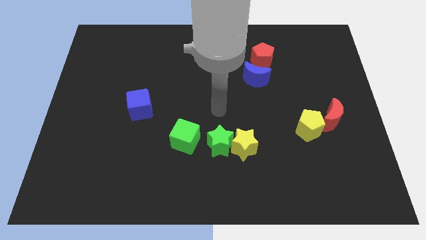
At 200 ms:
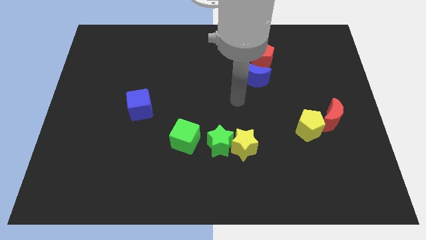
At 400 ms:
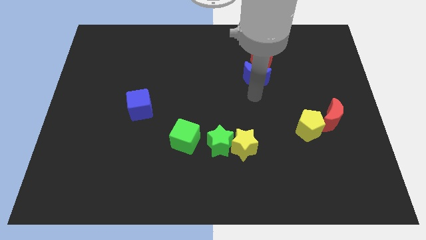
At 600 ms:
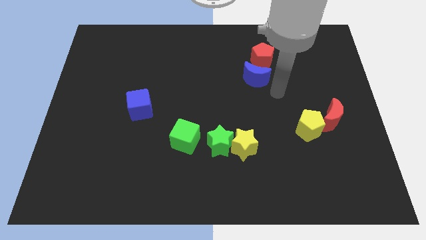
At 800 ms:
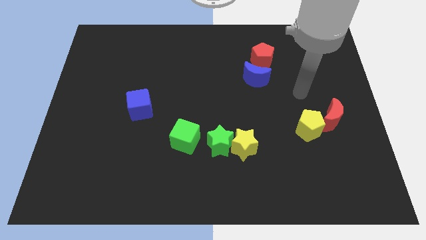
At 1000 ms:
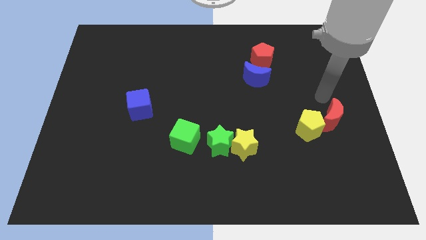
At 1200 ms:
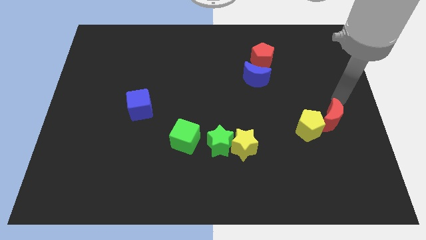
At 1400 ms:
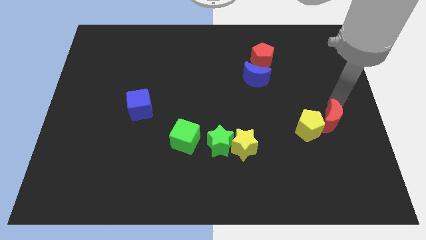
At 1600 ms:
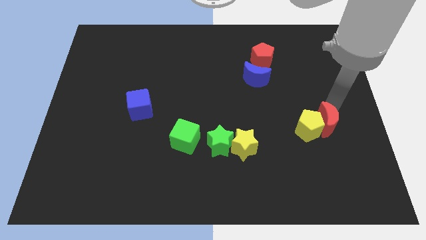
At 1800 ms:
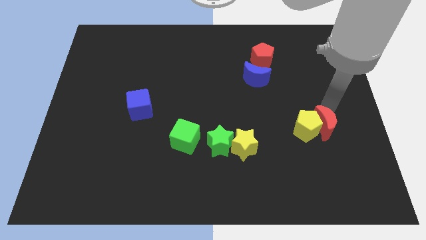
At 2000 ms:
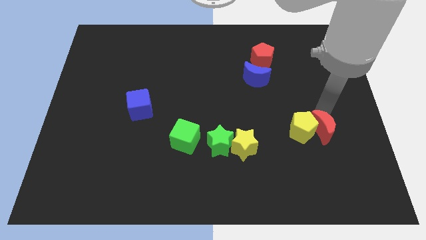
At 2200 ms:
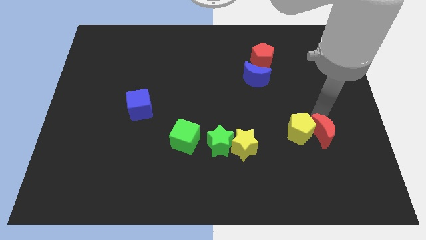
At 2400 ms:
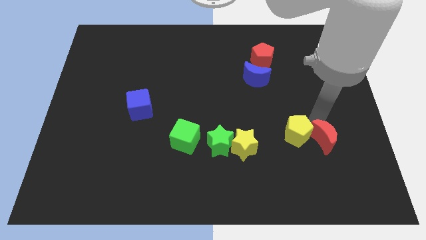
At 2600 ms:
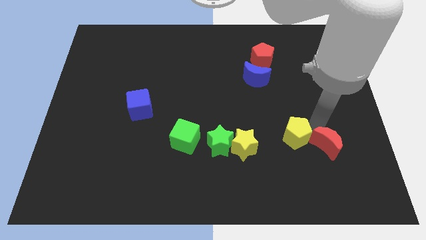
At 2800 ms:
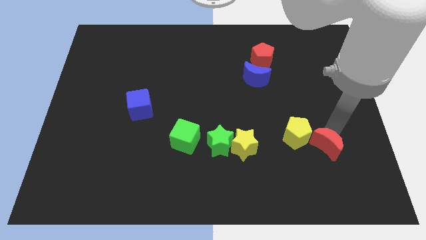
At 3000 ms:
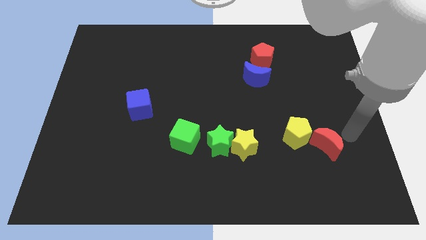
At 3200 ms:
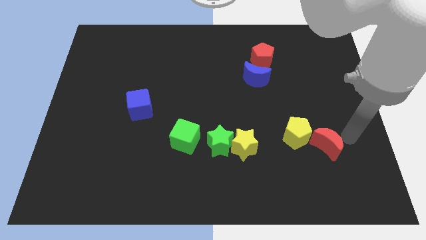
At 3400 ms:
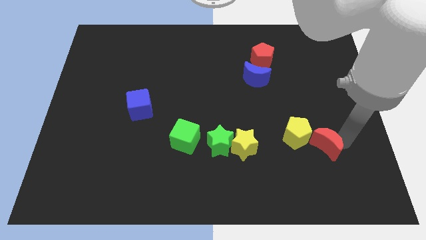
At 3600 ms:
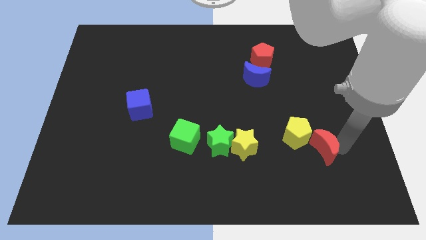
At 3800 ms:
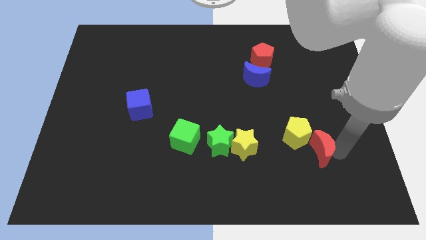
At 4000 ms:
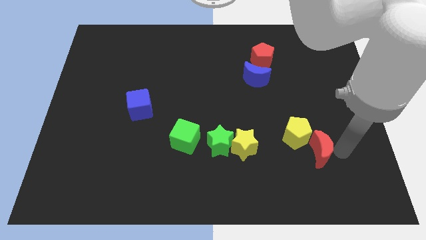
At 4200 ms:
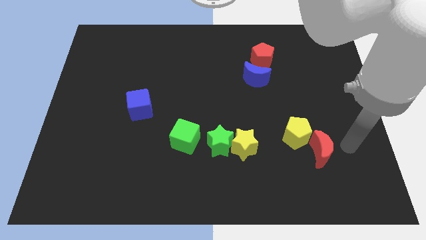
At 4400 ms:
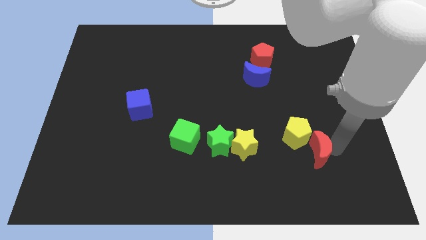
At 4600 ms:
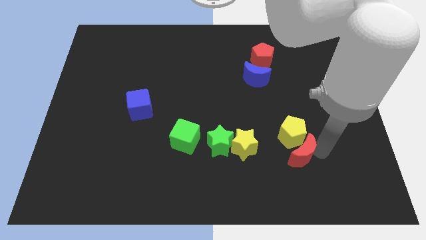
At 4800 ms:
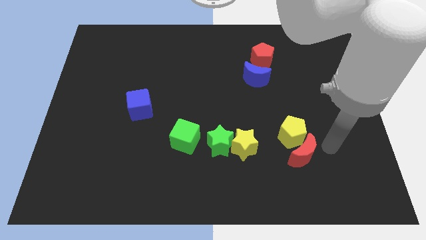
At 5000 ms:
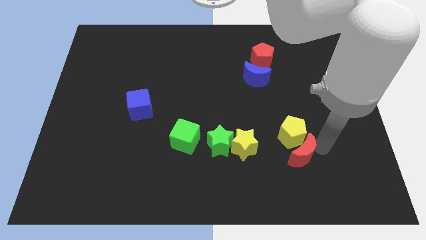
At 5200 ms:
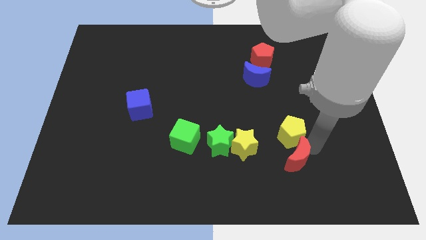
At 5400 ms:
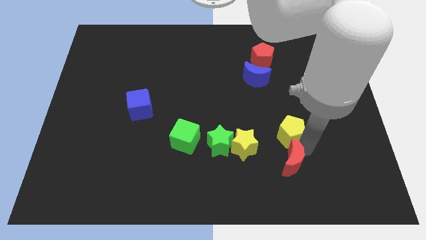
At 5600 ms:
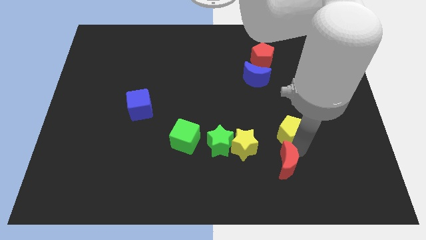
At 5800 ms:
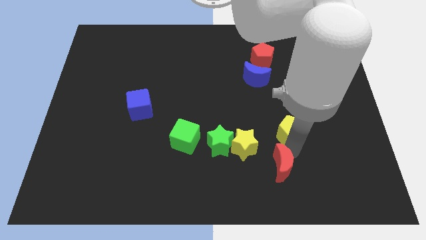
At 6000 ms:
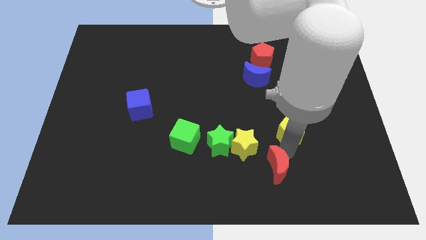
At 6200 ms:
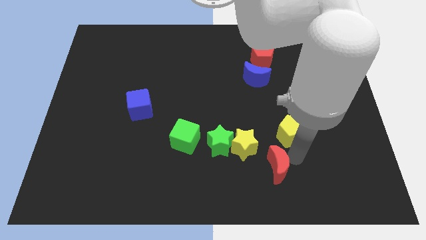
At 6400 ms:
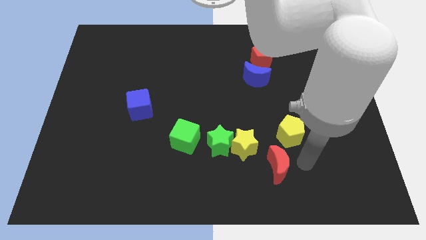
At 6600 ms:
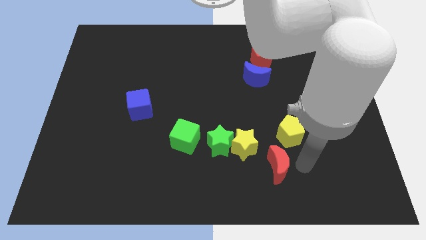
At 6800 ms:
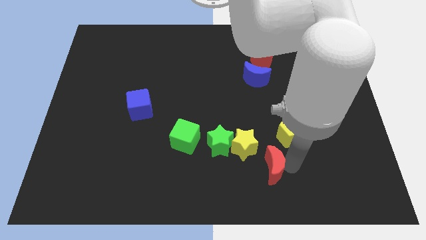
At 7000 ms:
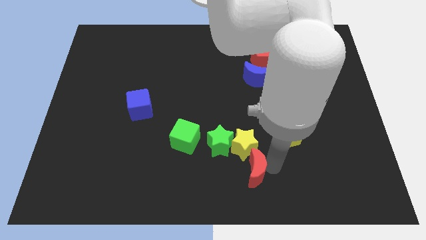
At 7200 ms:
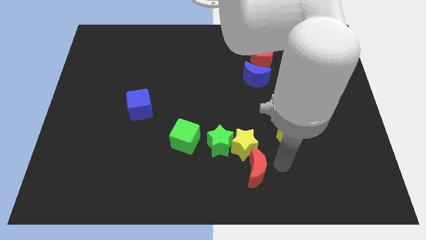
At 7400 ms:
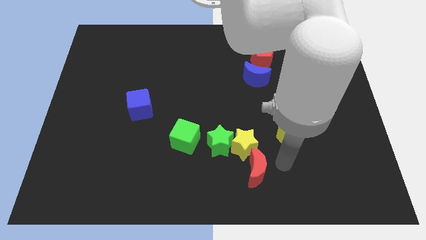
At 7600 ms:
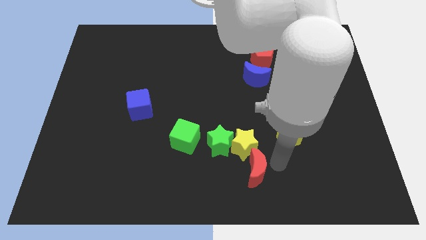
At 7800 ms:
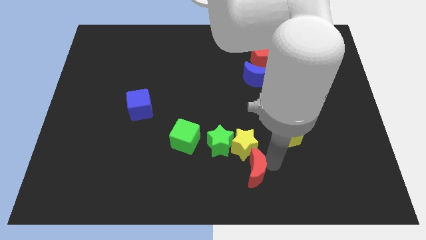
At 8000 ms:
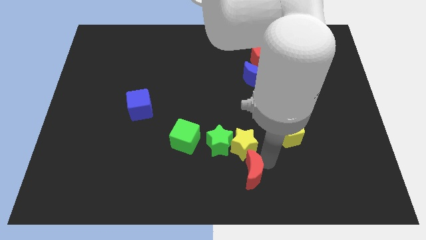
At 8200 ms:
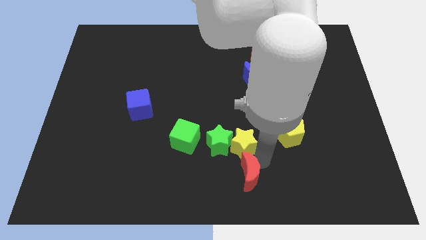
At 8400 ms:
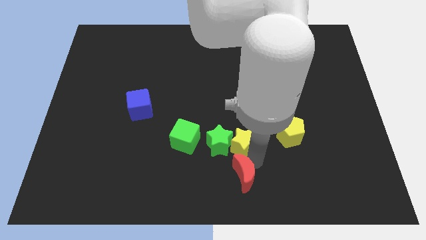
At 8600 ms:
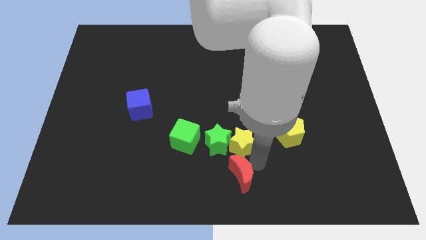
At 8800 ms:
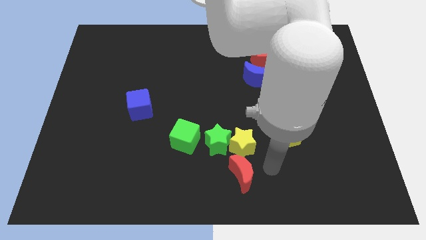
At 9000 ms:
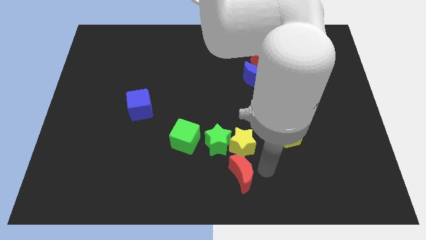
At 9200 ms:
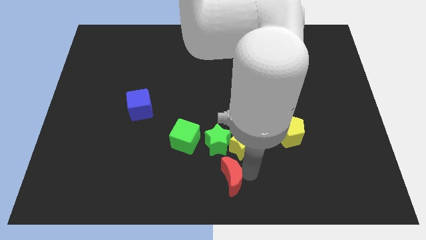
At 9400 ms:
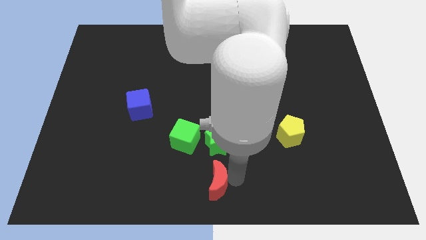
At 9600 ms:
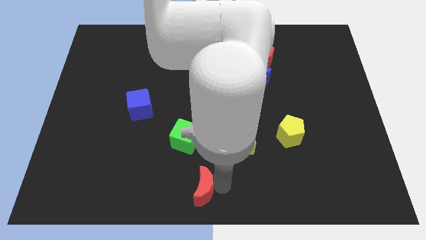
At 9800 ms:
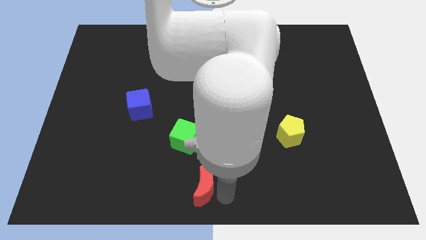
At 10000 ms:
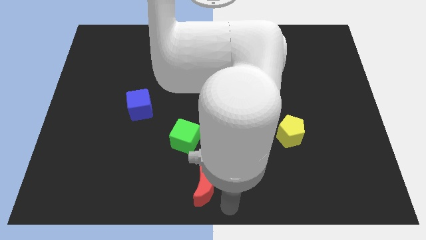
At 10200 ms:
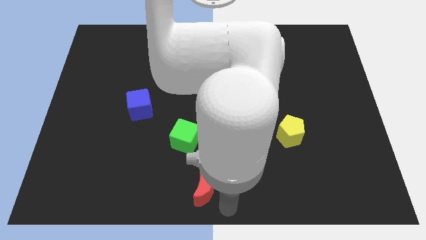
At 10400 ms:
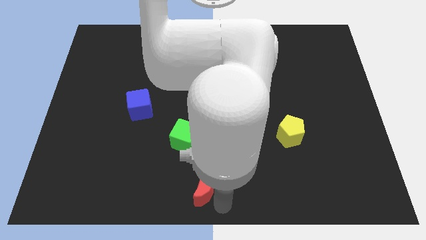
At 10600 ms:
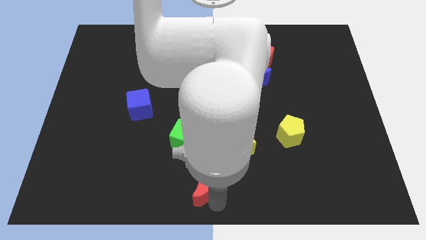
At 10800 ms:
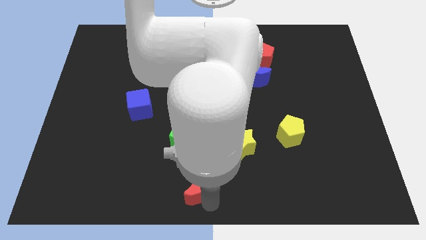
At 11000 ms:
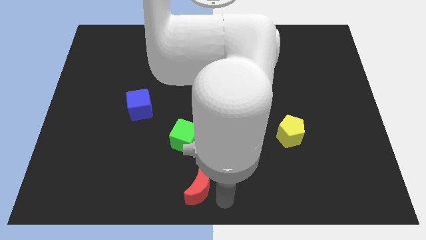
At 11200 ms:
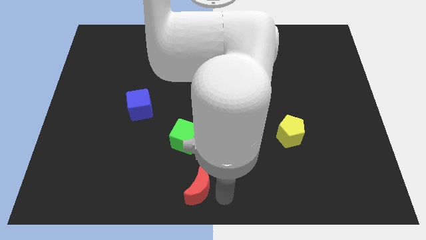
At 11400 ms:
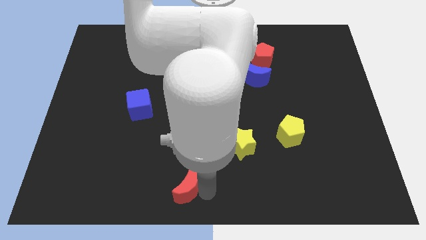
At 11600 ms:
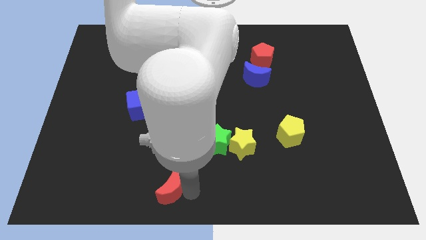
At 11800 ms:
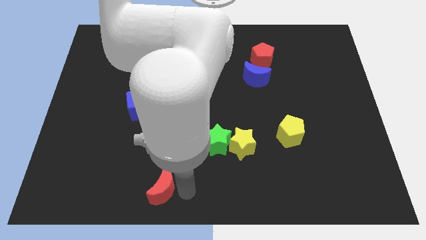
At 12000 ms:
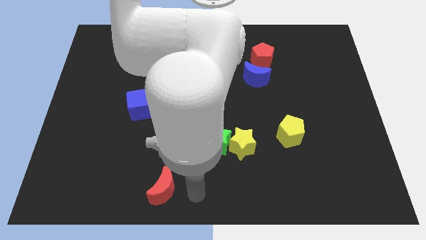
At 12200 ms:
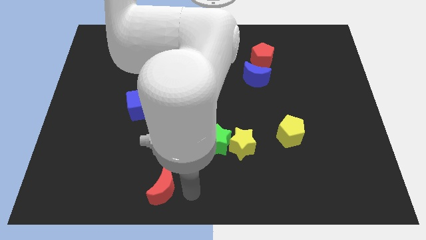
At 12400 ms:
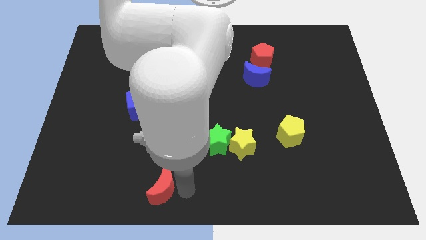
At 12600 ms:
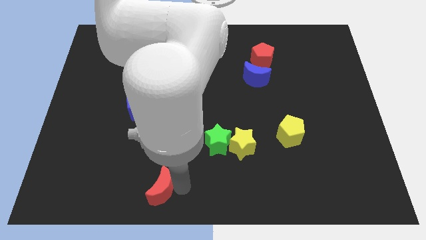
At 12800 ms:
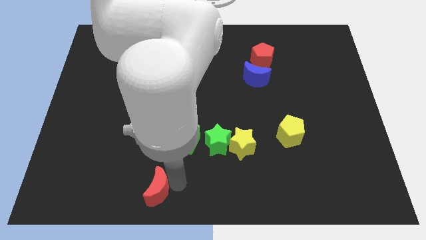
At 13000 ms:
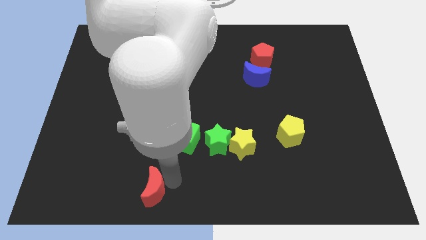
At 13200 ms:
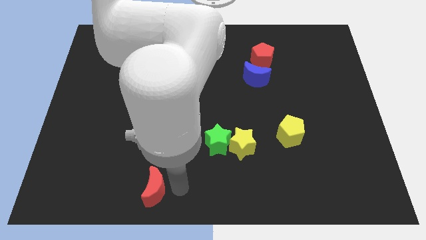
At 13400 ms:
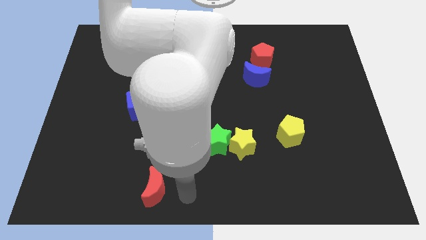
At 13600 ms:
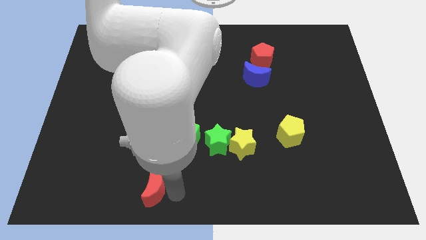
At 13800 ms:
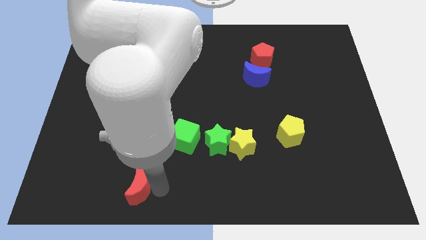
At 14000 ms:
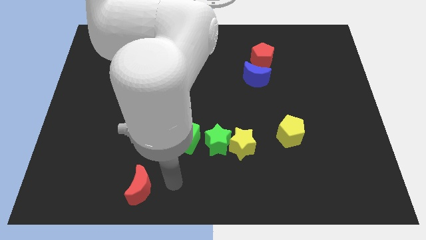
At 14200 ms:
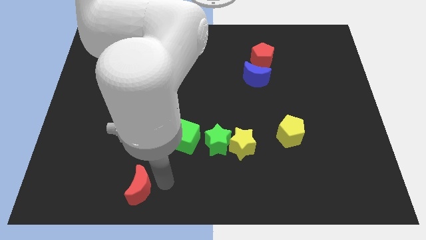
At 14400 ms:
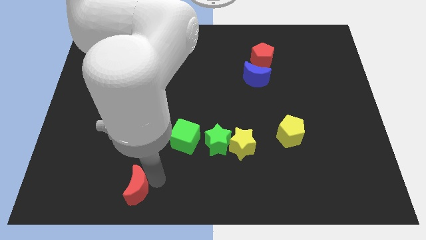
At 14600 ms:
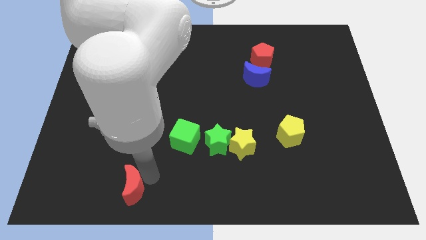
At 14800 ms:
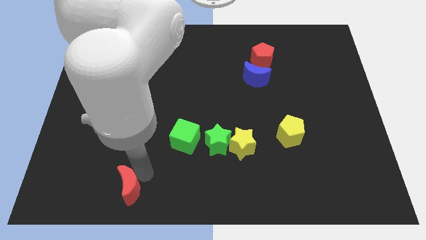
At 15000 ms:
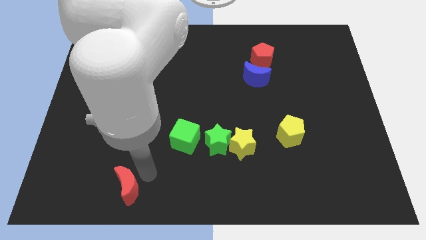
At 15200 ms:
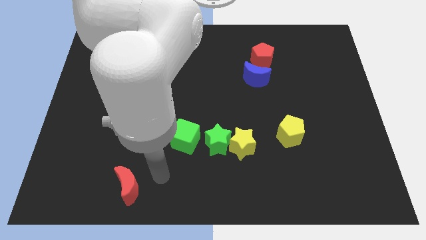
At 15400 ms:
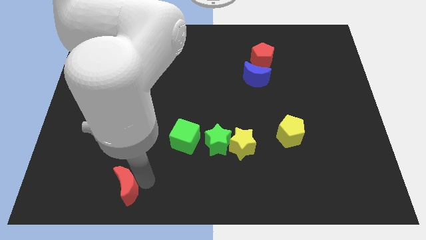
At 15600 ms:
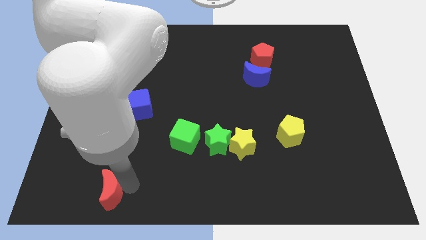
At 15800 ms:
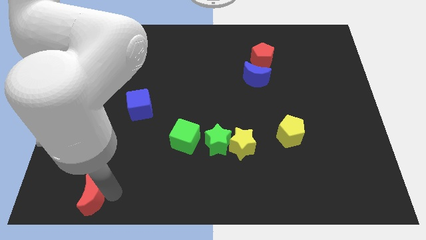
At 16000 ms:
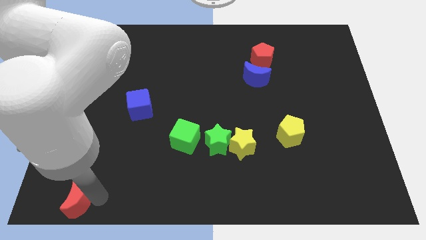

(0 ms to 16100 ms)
slide the red moon to the bottom left of the board
